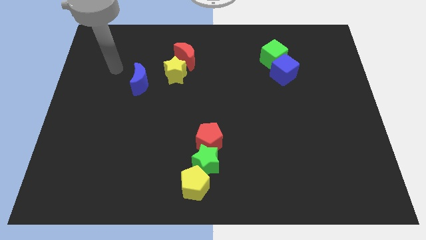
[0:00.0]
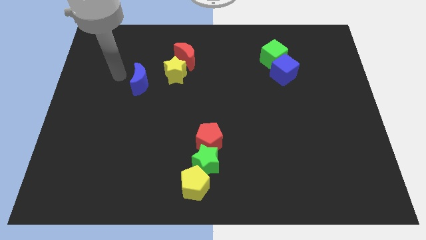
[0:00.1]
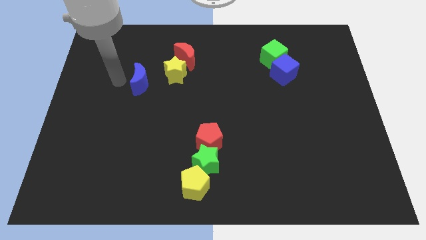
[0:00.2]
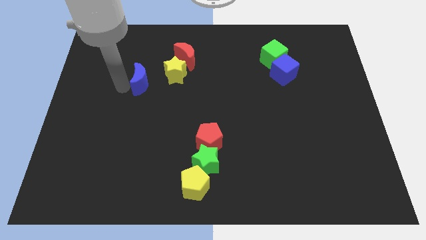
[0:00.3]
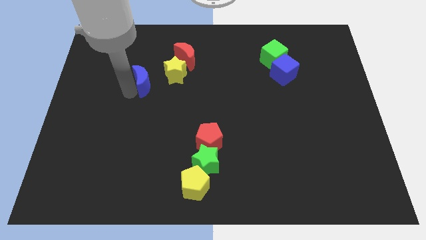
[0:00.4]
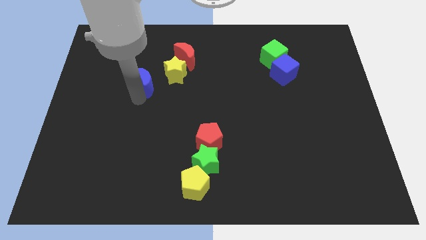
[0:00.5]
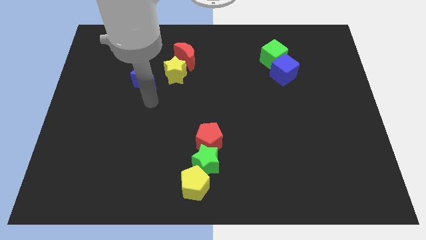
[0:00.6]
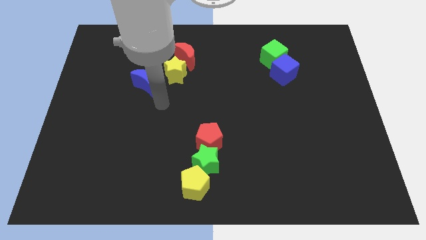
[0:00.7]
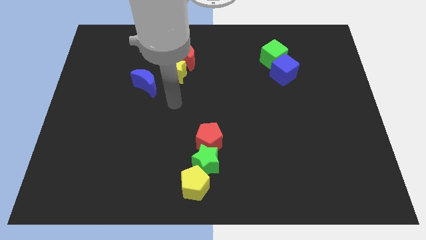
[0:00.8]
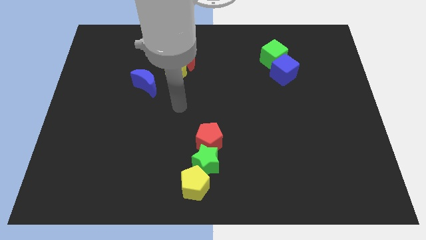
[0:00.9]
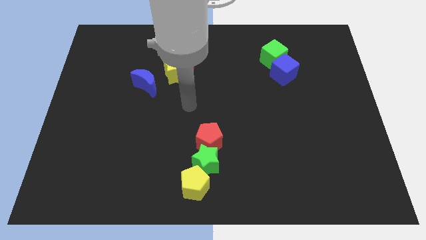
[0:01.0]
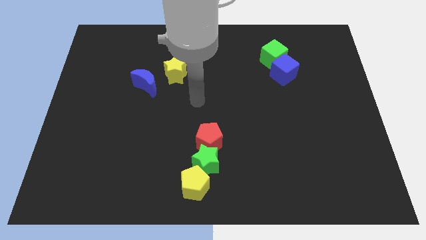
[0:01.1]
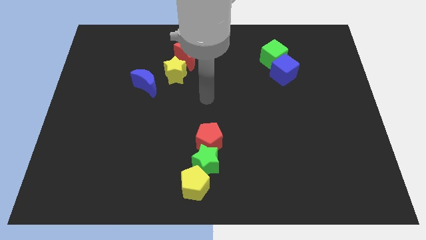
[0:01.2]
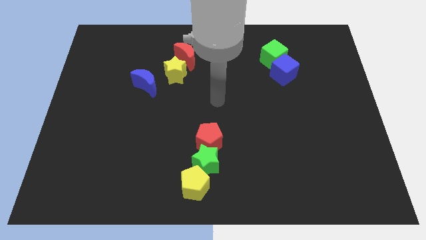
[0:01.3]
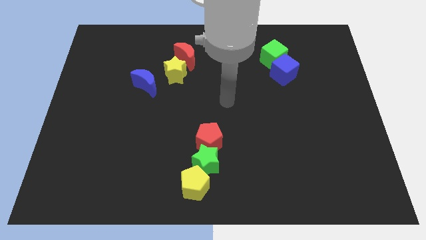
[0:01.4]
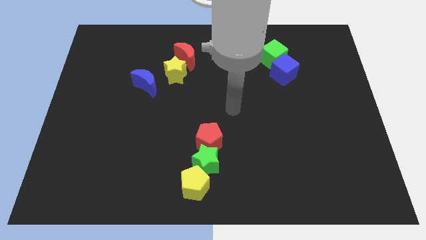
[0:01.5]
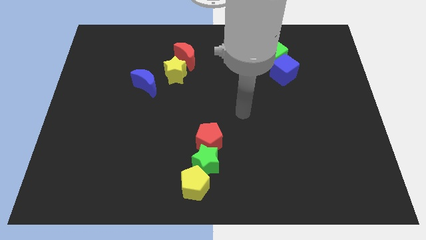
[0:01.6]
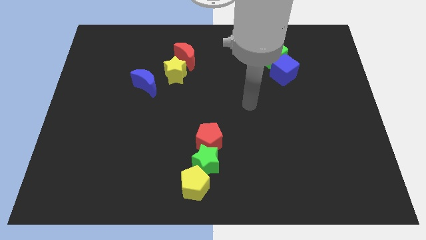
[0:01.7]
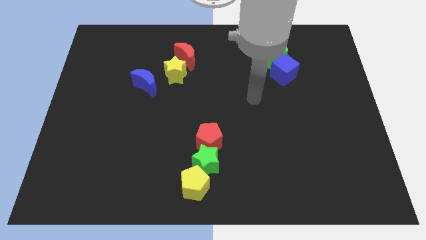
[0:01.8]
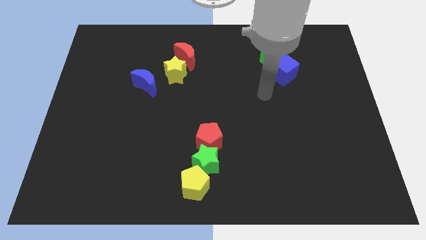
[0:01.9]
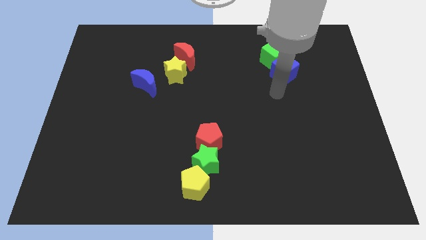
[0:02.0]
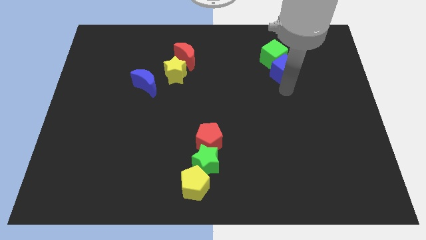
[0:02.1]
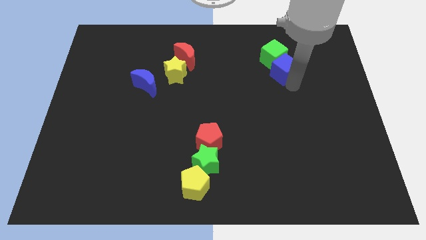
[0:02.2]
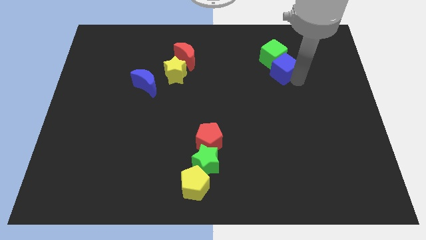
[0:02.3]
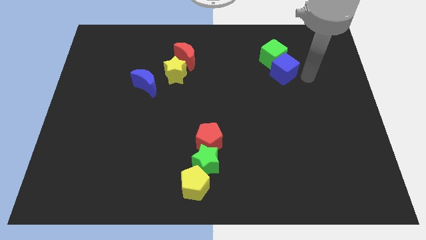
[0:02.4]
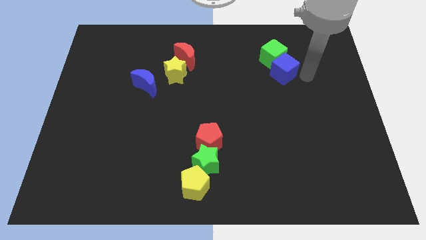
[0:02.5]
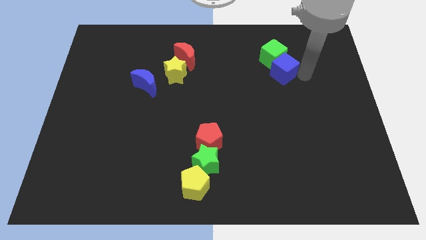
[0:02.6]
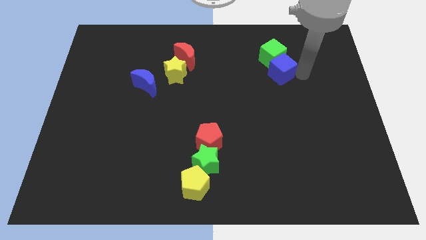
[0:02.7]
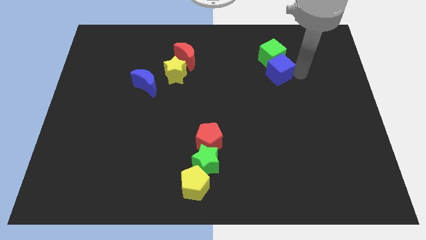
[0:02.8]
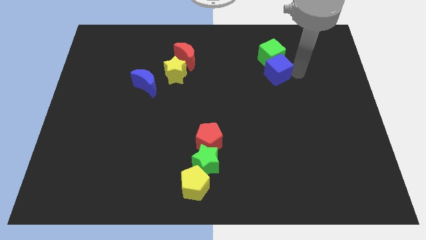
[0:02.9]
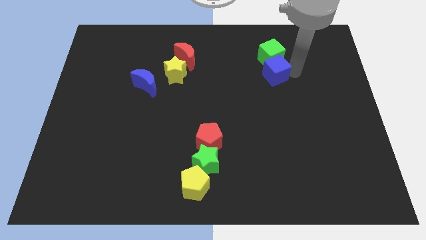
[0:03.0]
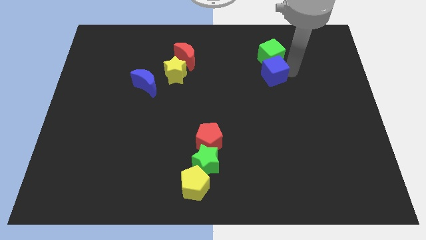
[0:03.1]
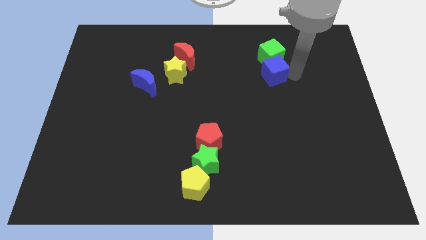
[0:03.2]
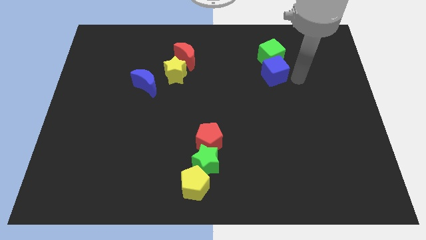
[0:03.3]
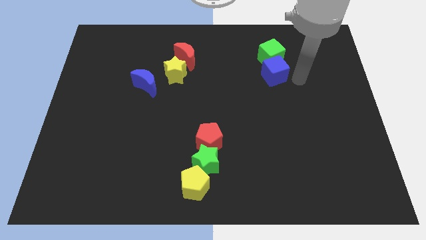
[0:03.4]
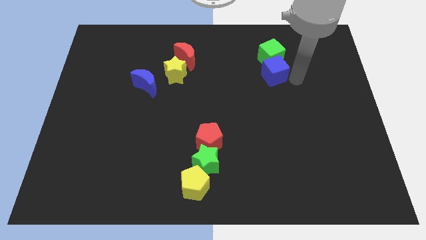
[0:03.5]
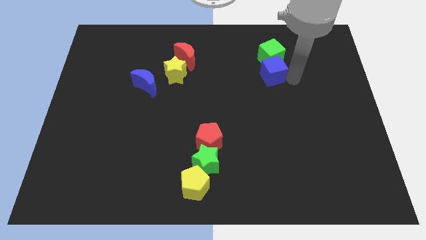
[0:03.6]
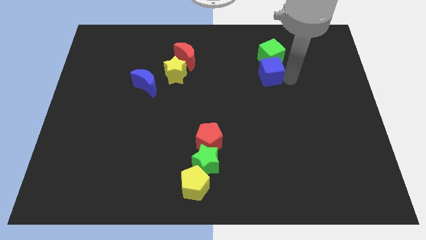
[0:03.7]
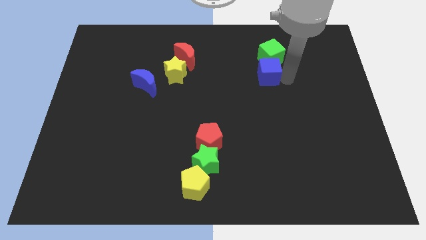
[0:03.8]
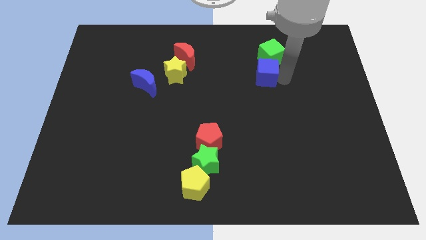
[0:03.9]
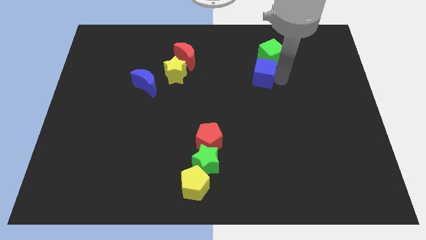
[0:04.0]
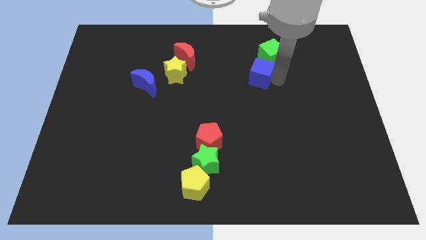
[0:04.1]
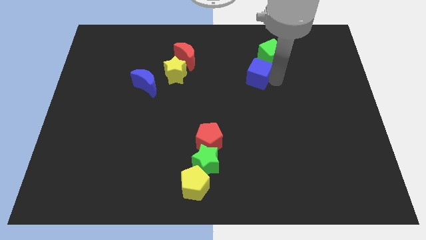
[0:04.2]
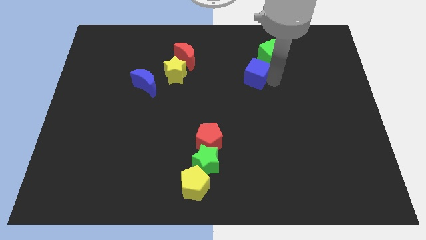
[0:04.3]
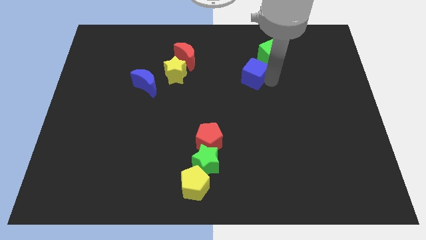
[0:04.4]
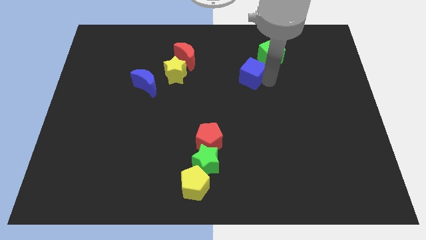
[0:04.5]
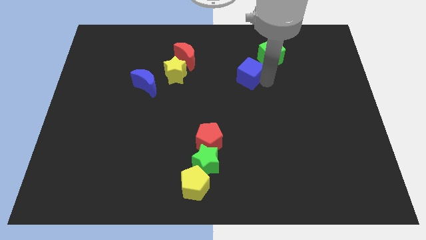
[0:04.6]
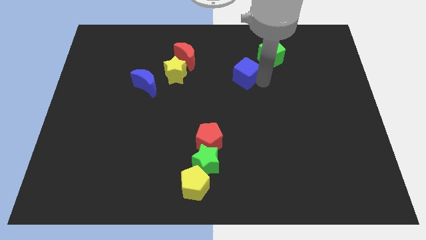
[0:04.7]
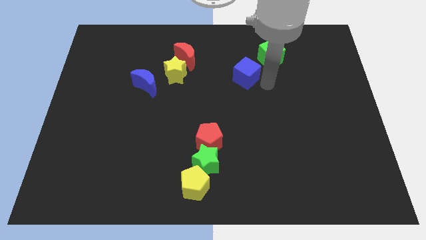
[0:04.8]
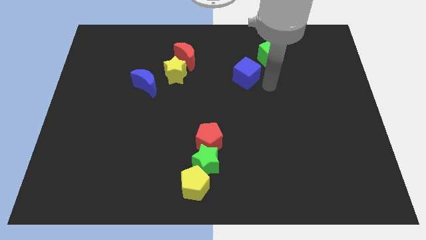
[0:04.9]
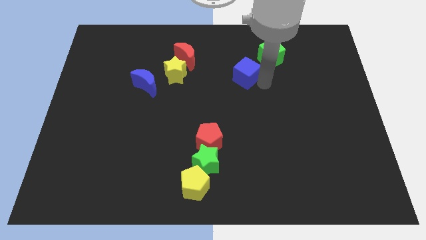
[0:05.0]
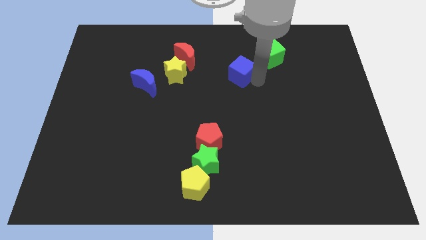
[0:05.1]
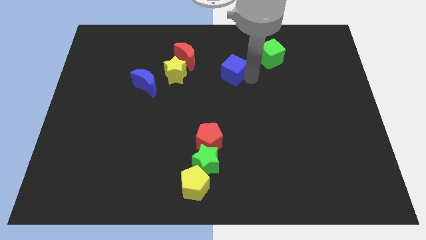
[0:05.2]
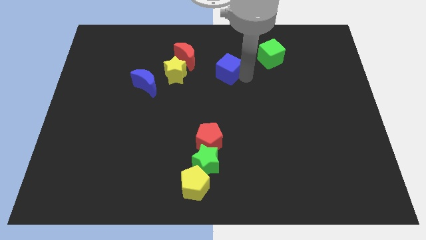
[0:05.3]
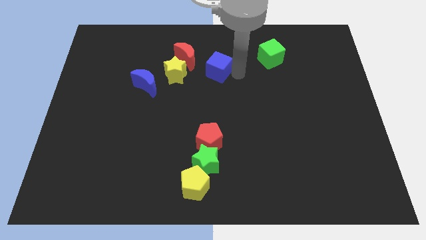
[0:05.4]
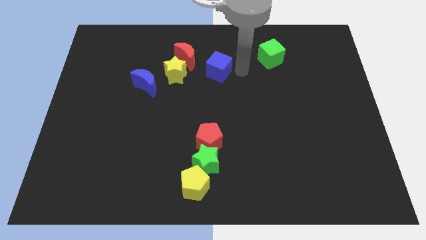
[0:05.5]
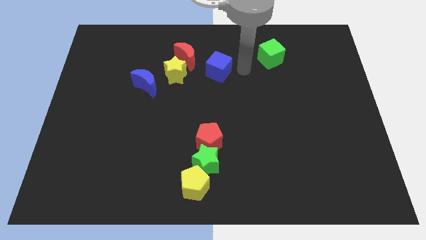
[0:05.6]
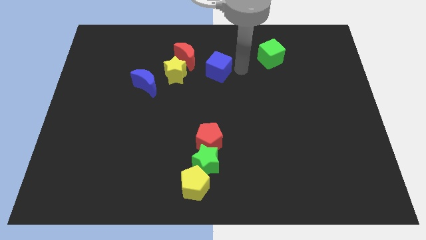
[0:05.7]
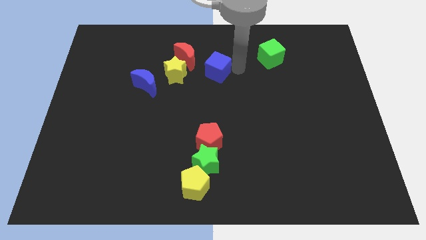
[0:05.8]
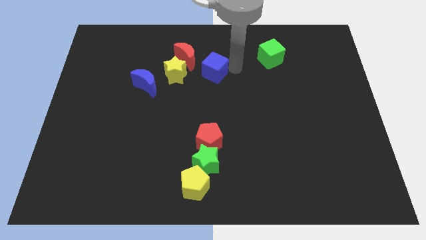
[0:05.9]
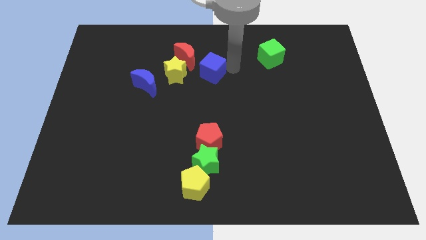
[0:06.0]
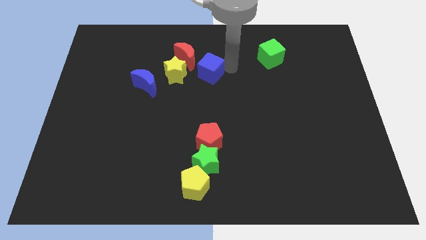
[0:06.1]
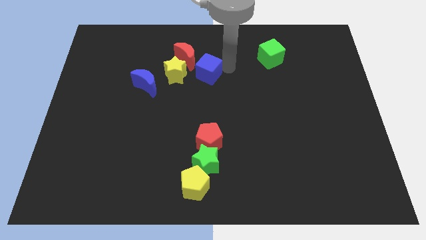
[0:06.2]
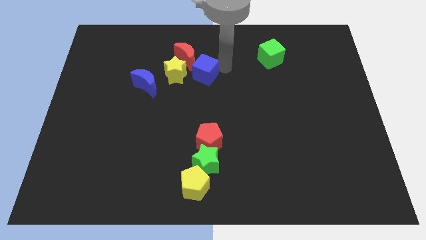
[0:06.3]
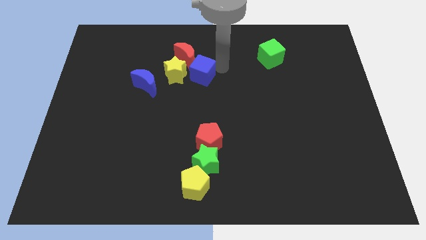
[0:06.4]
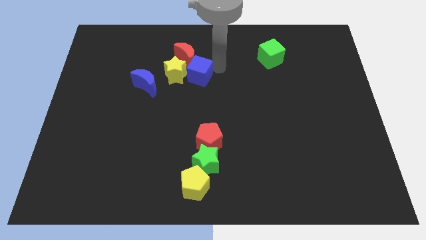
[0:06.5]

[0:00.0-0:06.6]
move the blue cube next to the yellow star

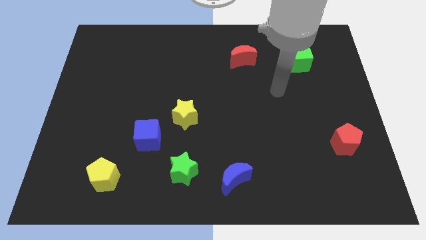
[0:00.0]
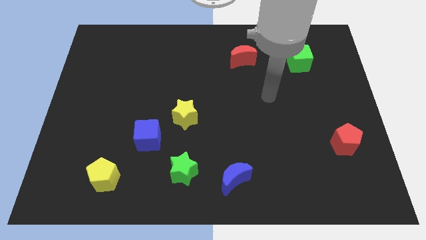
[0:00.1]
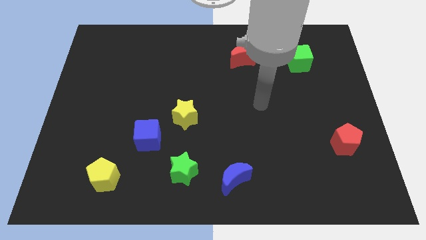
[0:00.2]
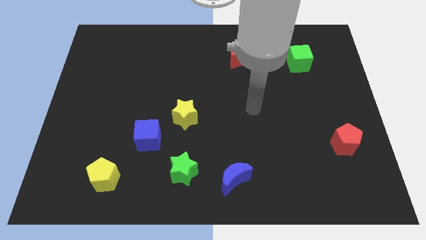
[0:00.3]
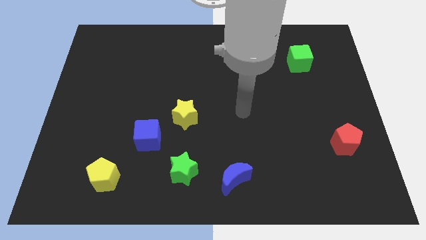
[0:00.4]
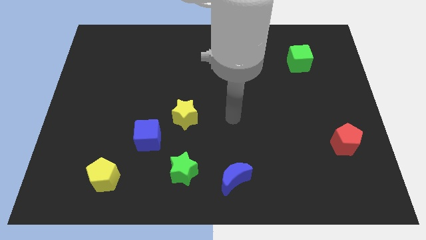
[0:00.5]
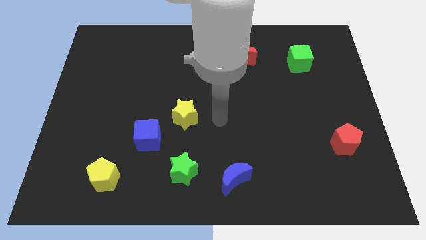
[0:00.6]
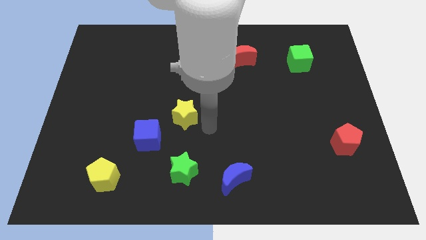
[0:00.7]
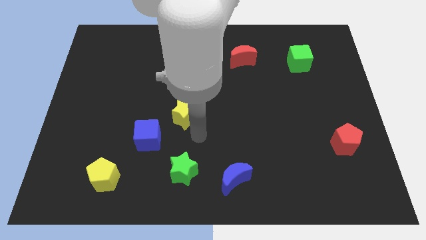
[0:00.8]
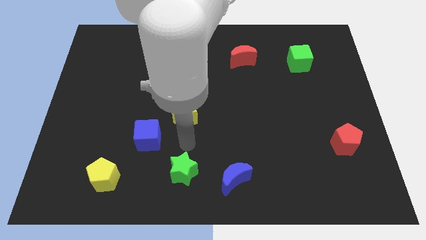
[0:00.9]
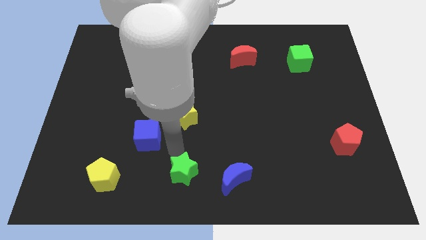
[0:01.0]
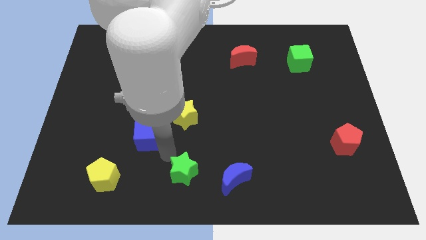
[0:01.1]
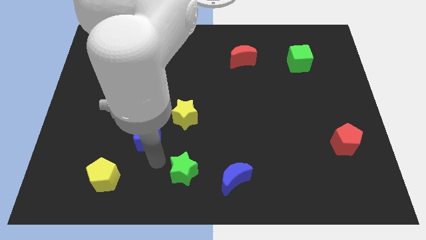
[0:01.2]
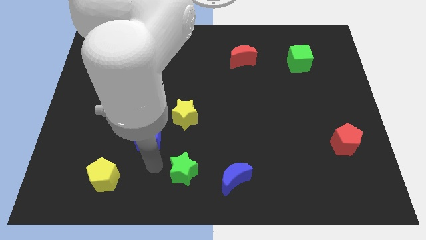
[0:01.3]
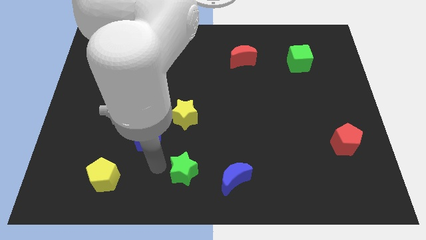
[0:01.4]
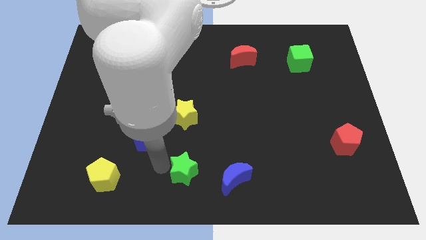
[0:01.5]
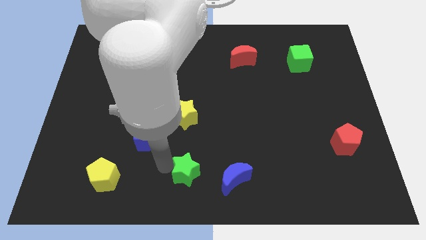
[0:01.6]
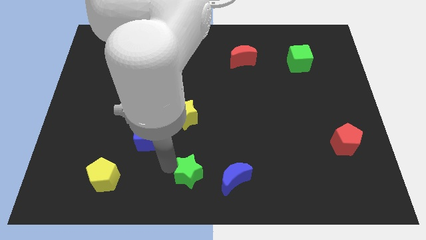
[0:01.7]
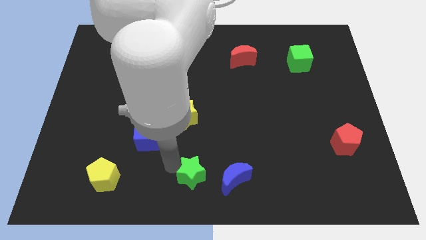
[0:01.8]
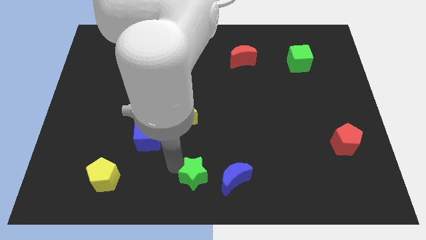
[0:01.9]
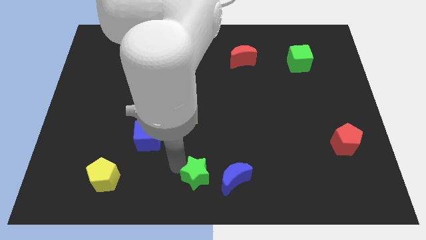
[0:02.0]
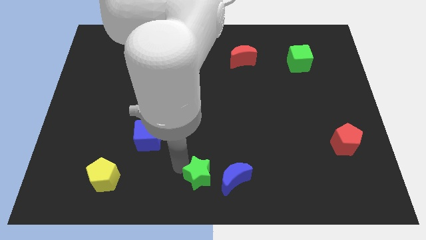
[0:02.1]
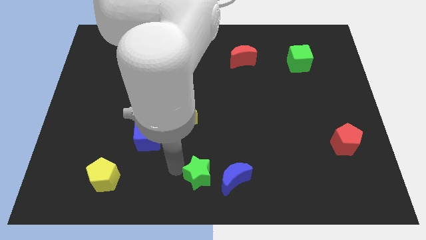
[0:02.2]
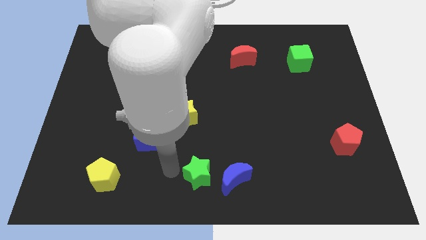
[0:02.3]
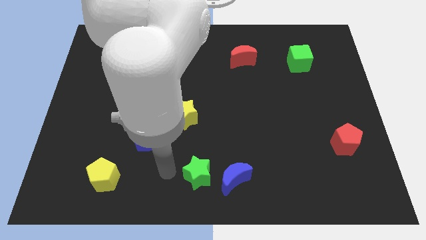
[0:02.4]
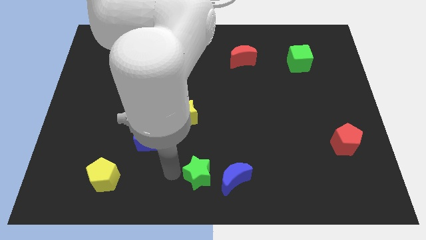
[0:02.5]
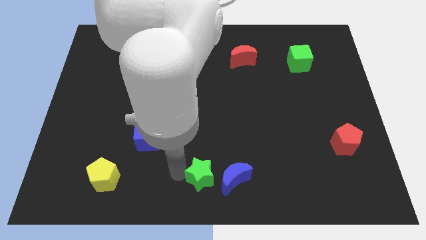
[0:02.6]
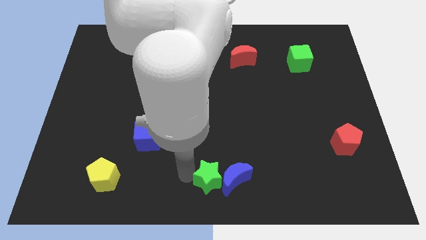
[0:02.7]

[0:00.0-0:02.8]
move the green star to the blue moon
